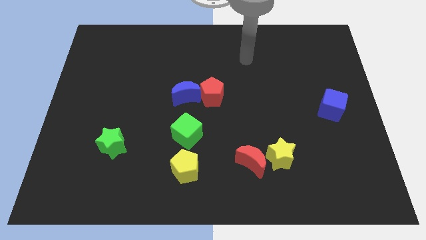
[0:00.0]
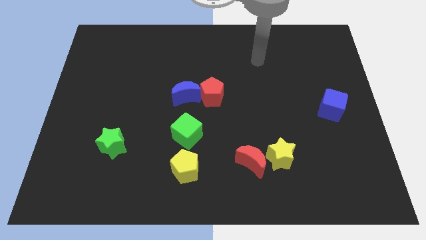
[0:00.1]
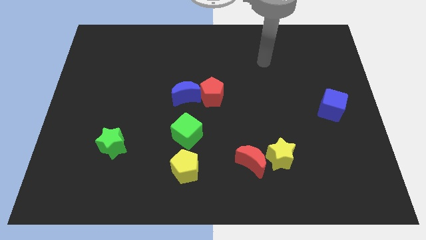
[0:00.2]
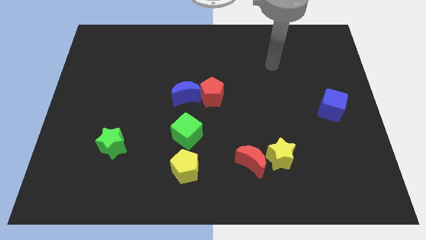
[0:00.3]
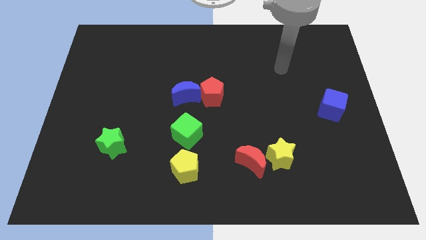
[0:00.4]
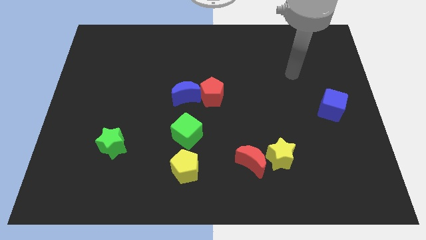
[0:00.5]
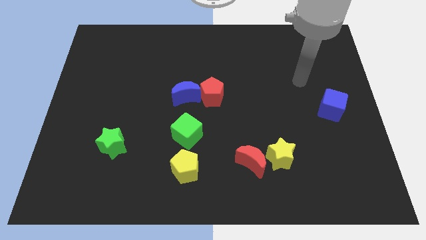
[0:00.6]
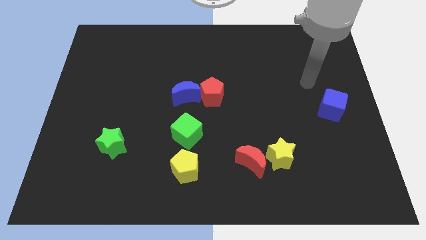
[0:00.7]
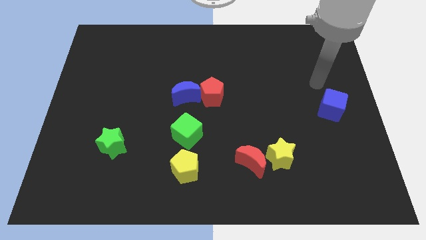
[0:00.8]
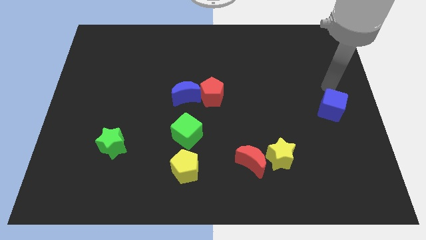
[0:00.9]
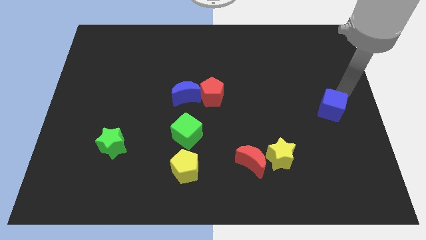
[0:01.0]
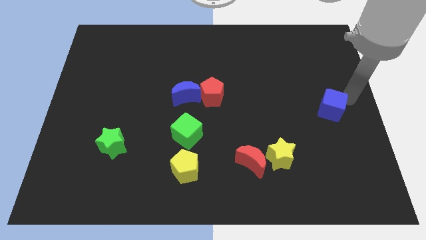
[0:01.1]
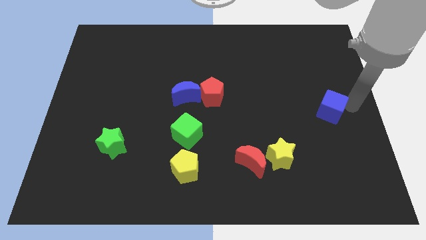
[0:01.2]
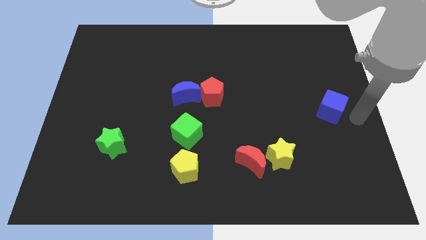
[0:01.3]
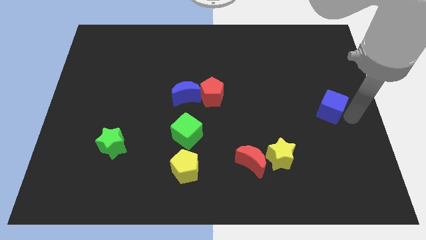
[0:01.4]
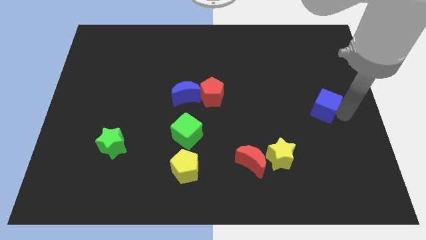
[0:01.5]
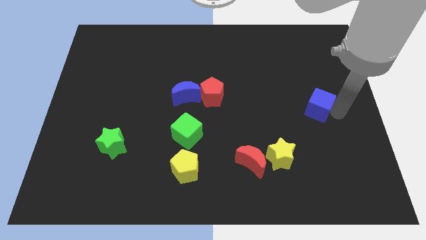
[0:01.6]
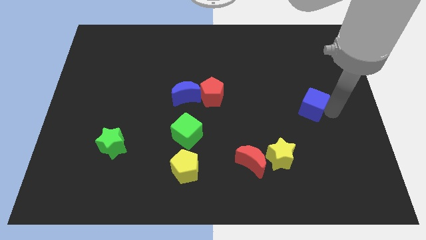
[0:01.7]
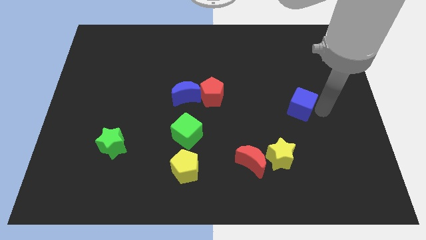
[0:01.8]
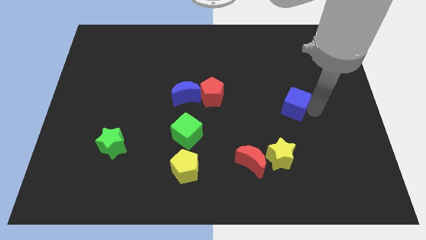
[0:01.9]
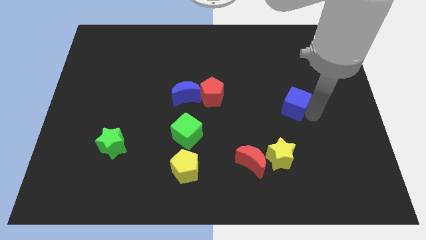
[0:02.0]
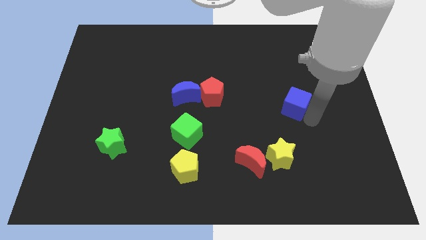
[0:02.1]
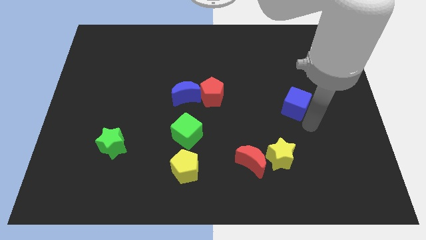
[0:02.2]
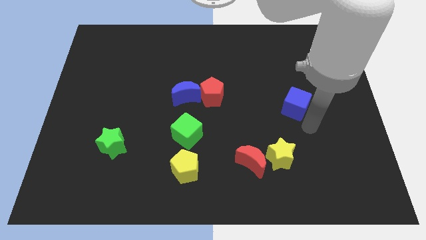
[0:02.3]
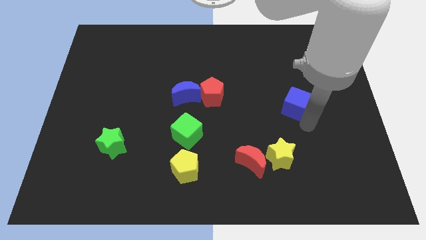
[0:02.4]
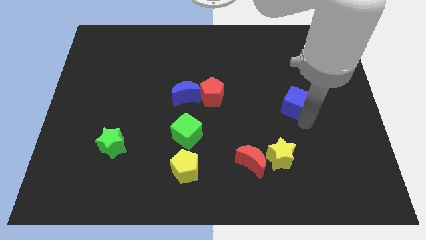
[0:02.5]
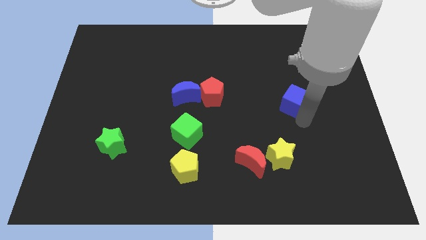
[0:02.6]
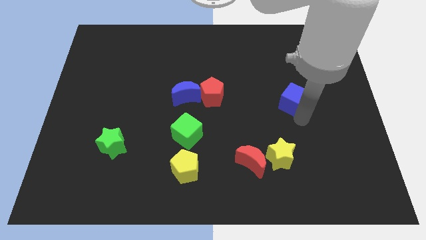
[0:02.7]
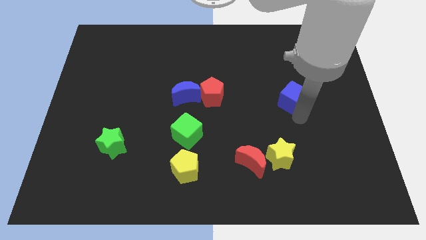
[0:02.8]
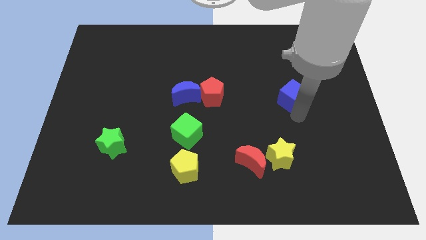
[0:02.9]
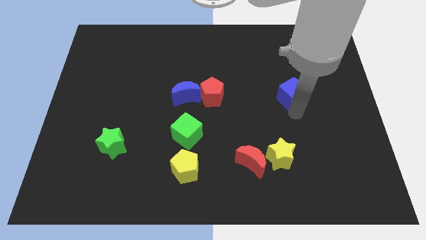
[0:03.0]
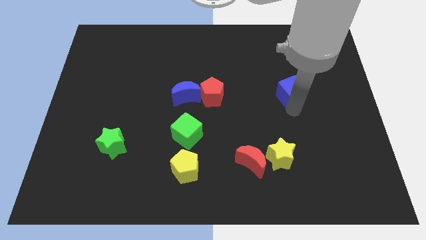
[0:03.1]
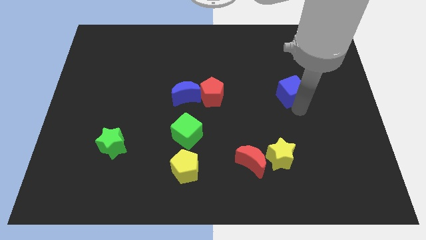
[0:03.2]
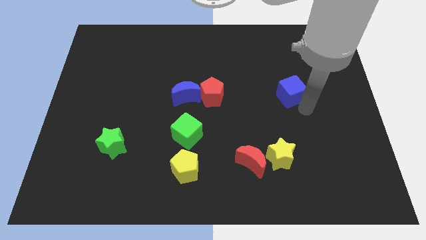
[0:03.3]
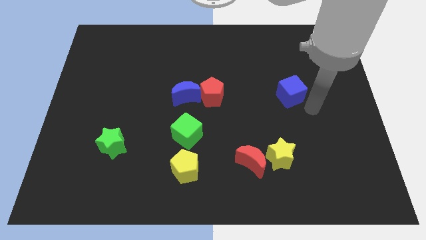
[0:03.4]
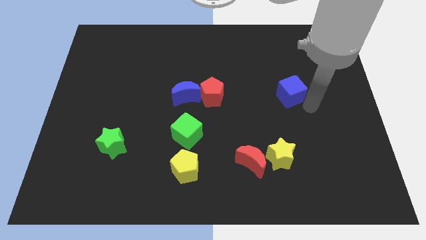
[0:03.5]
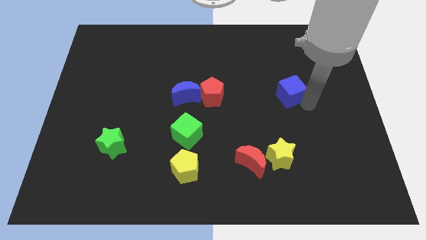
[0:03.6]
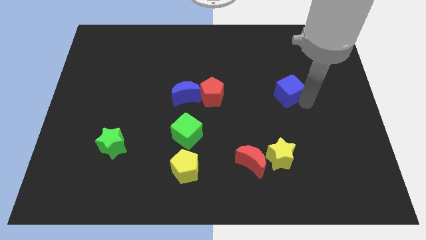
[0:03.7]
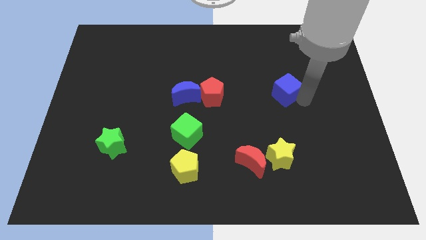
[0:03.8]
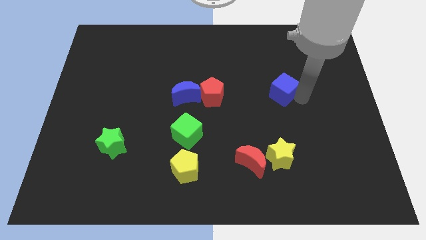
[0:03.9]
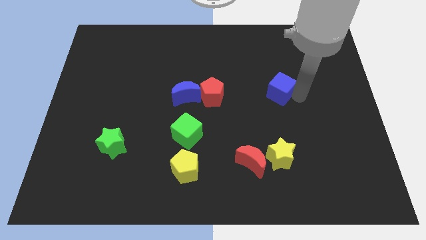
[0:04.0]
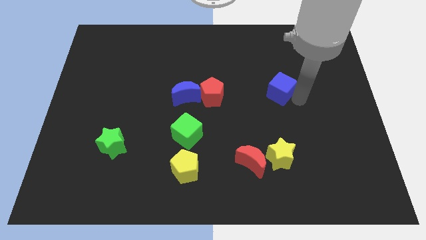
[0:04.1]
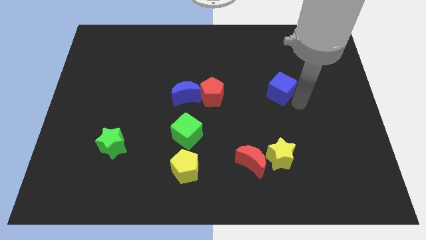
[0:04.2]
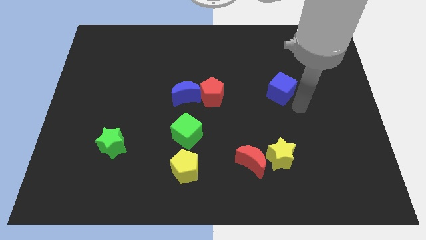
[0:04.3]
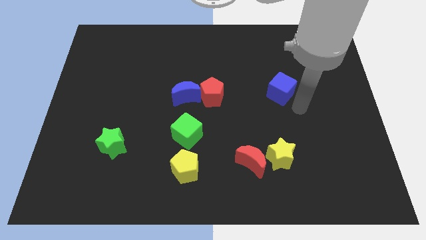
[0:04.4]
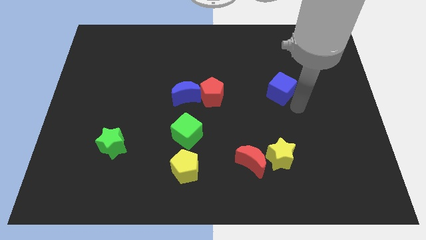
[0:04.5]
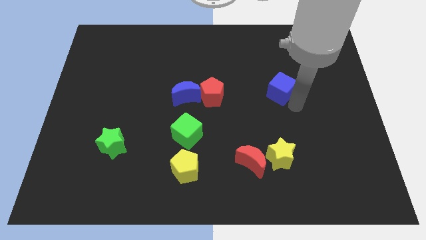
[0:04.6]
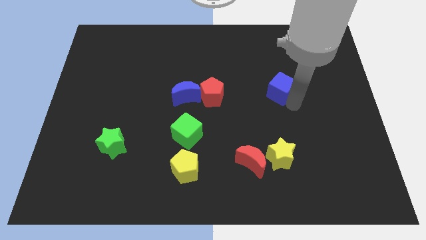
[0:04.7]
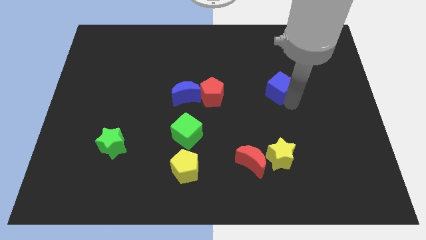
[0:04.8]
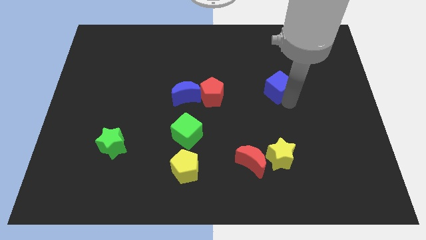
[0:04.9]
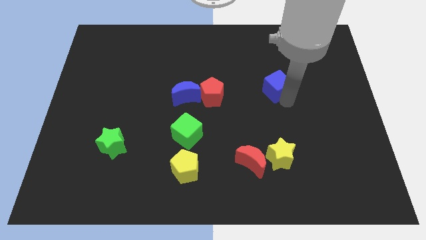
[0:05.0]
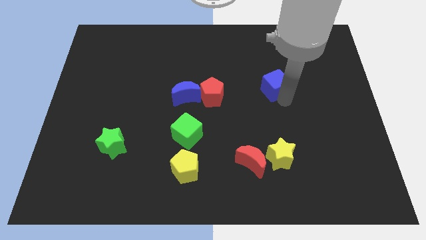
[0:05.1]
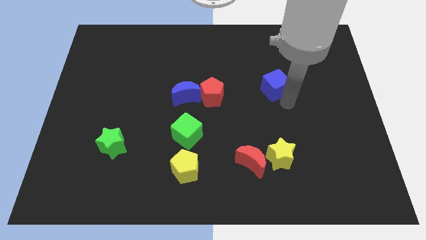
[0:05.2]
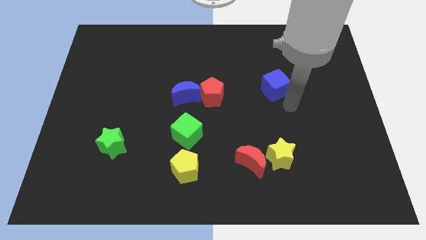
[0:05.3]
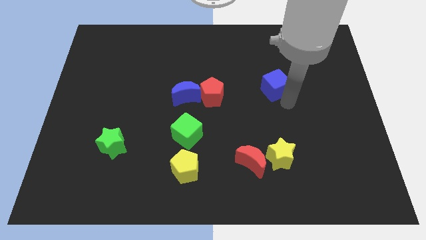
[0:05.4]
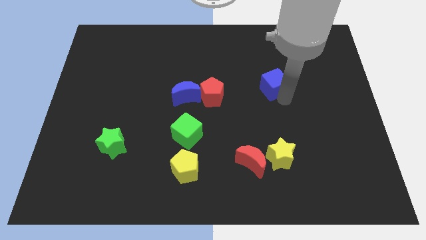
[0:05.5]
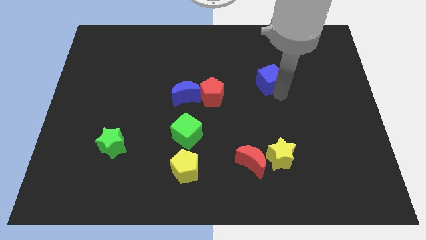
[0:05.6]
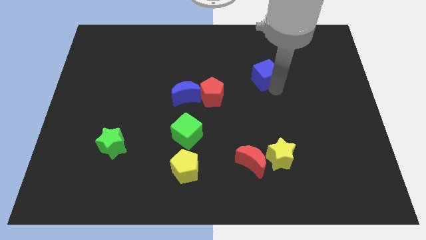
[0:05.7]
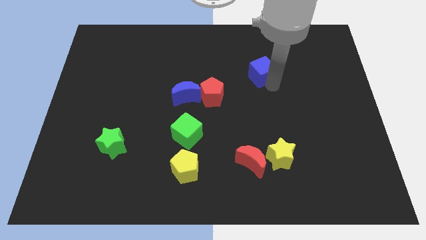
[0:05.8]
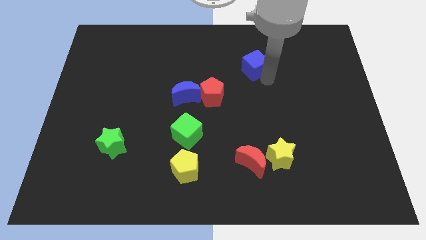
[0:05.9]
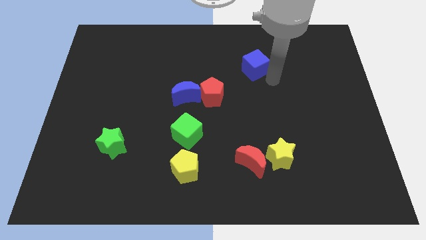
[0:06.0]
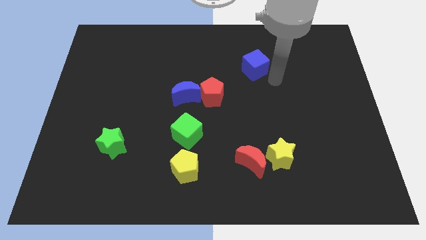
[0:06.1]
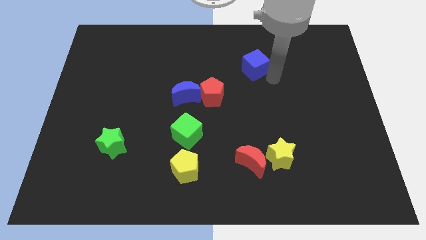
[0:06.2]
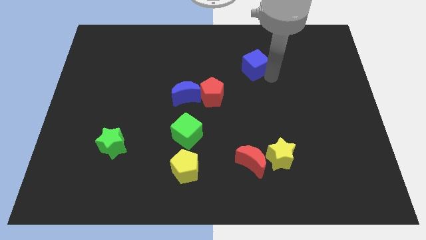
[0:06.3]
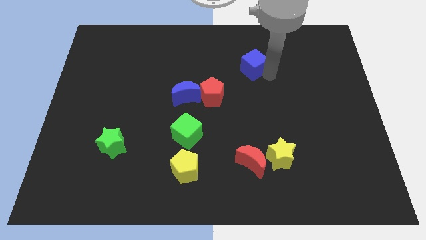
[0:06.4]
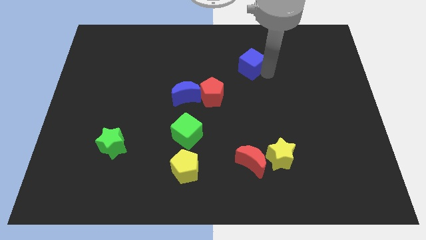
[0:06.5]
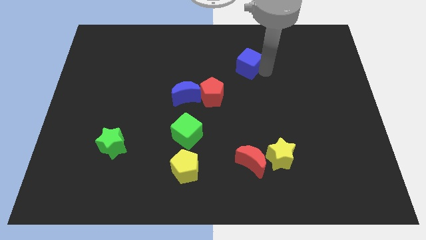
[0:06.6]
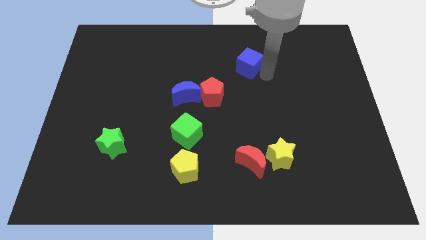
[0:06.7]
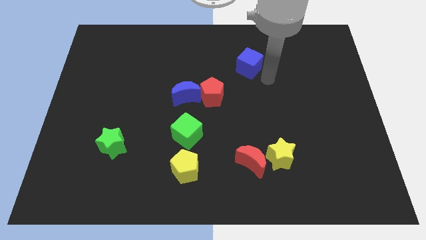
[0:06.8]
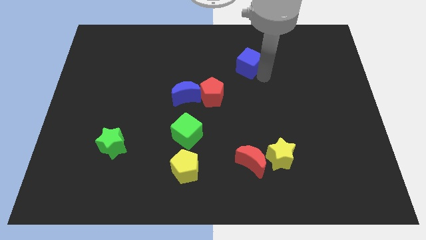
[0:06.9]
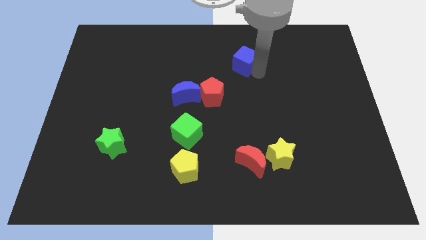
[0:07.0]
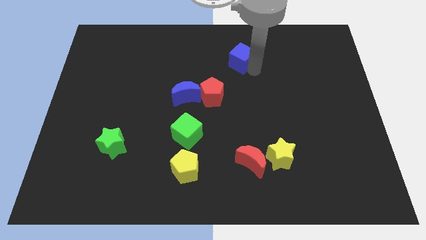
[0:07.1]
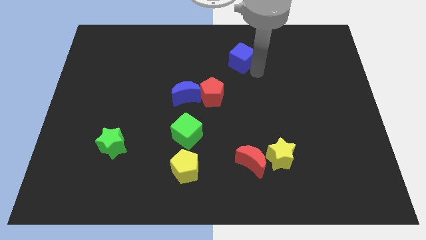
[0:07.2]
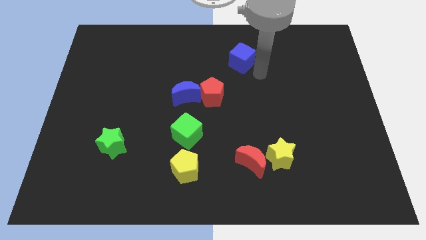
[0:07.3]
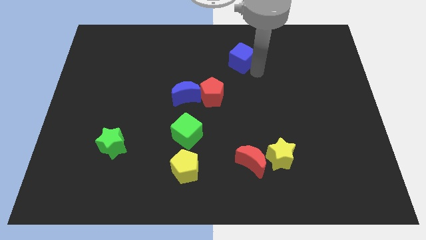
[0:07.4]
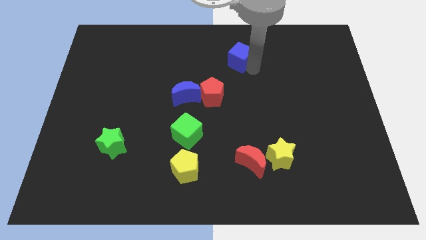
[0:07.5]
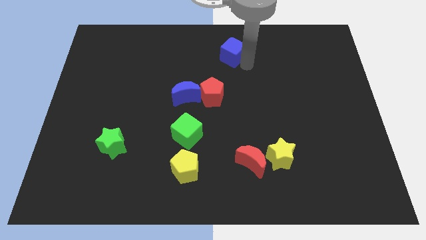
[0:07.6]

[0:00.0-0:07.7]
move the blue cube to the towards your base
